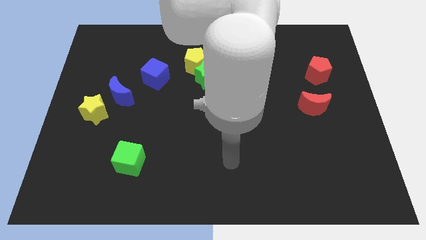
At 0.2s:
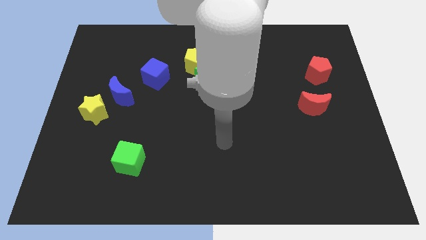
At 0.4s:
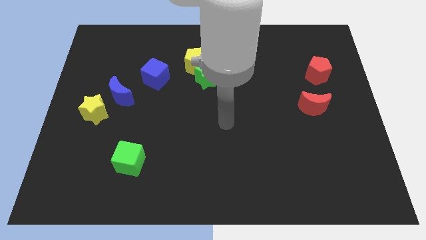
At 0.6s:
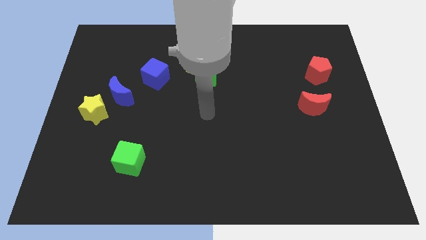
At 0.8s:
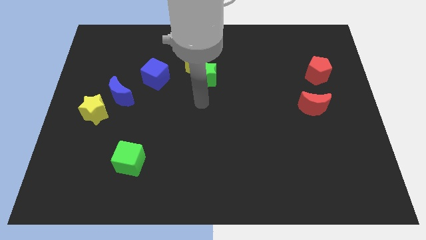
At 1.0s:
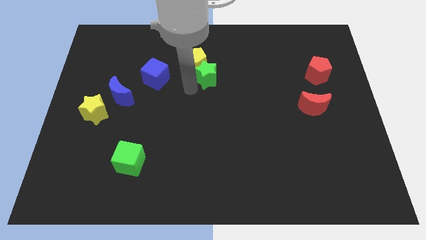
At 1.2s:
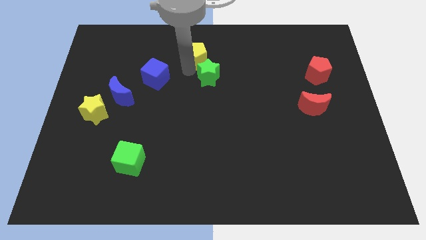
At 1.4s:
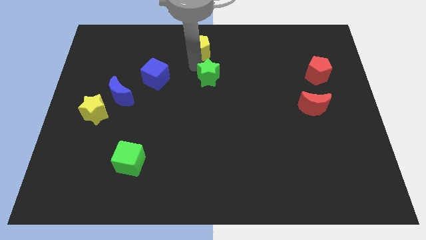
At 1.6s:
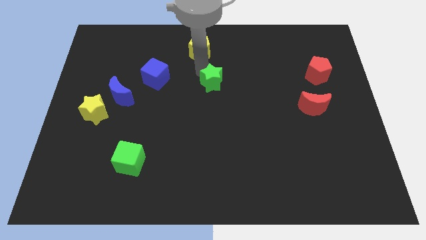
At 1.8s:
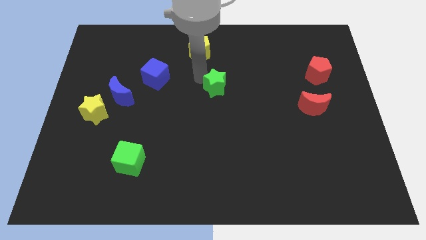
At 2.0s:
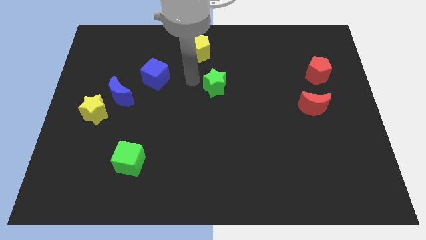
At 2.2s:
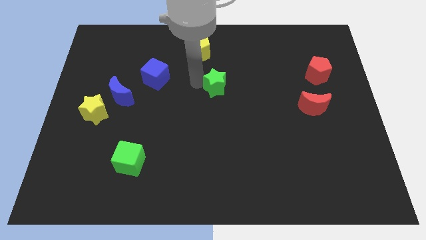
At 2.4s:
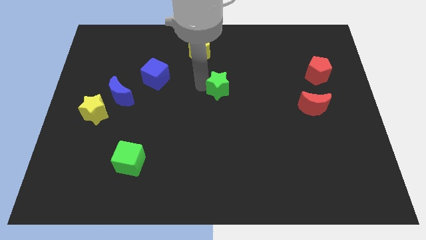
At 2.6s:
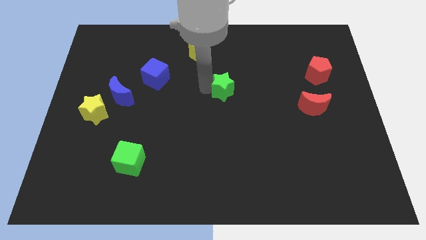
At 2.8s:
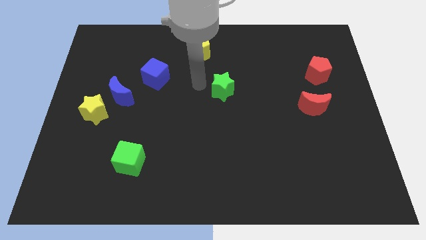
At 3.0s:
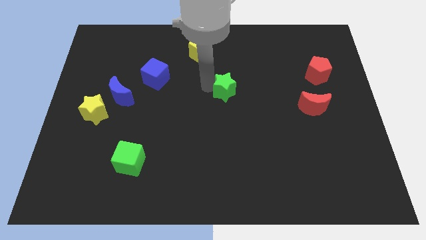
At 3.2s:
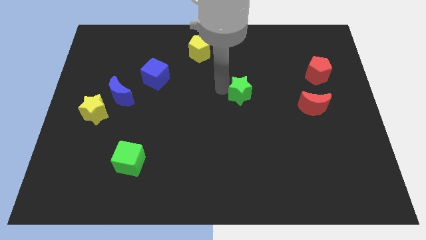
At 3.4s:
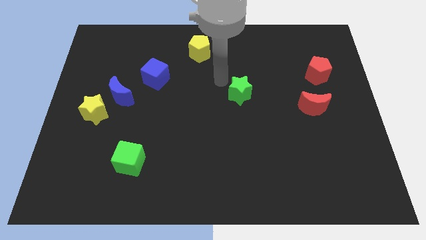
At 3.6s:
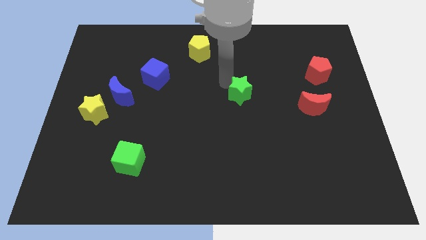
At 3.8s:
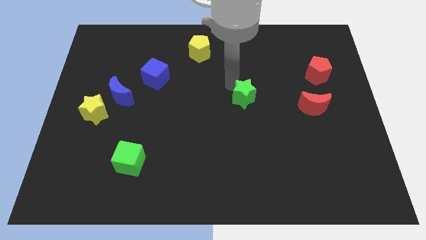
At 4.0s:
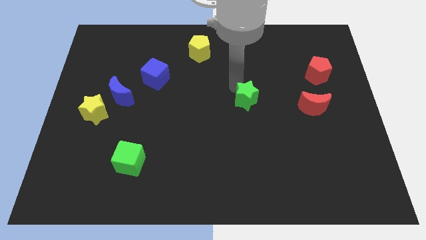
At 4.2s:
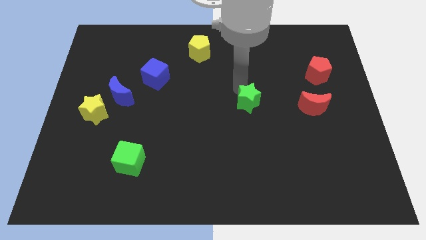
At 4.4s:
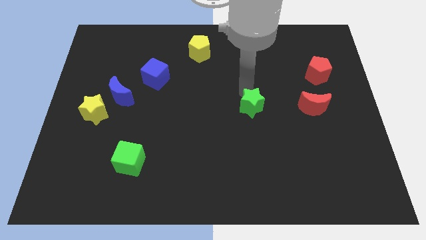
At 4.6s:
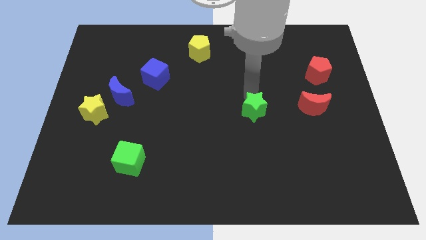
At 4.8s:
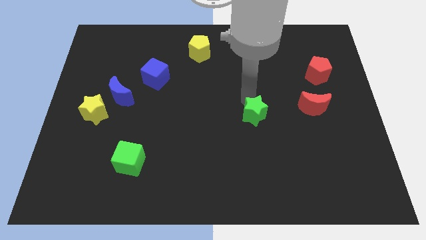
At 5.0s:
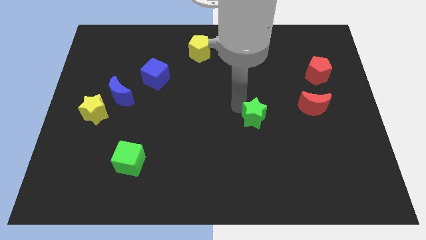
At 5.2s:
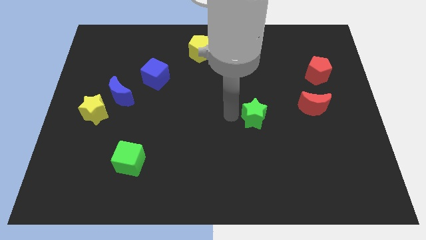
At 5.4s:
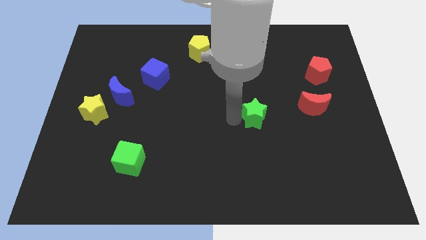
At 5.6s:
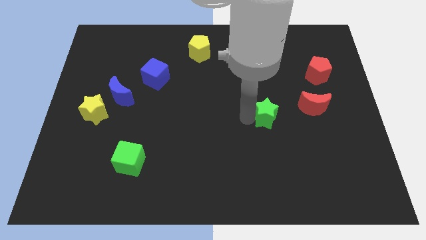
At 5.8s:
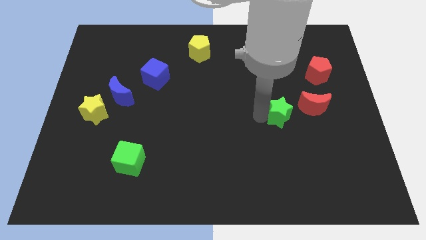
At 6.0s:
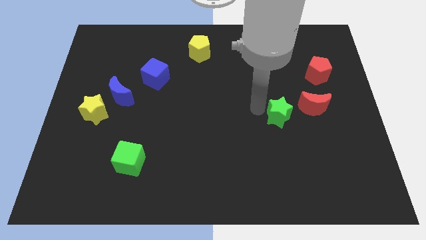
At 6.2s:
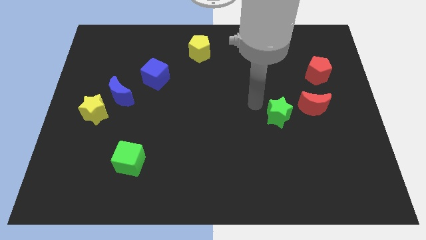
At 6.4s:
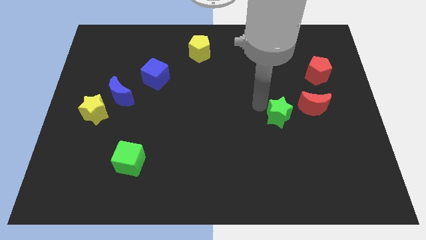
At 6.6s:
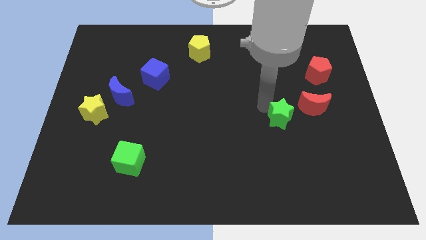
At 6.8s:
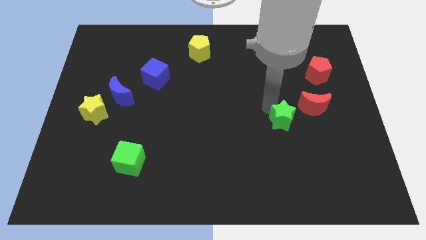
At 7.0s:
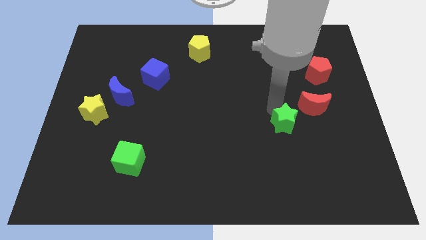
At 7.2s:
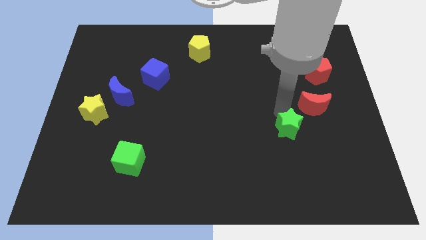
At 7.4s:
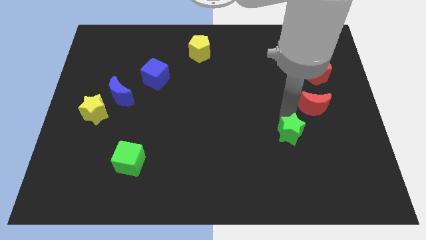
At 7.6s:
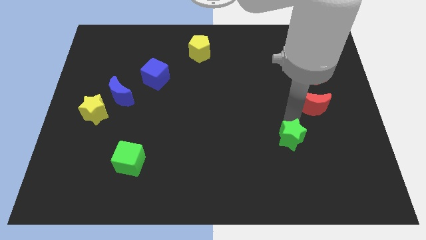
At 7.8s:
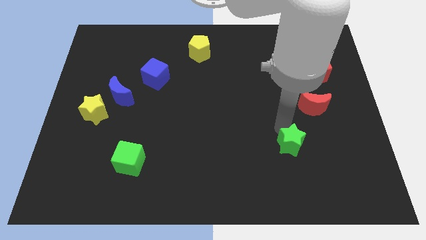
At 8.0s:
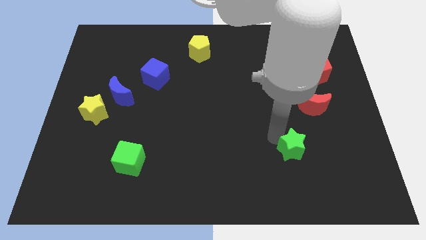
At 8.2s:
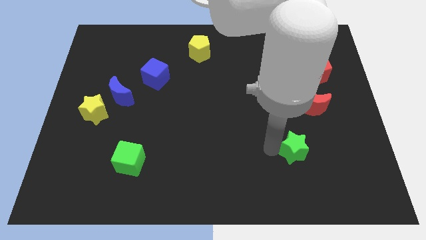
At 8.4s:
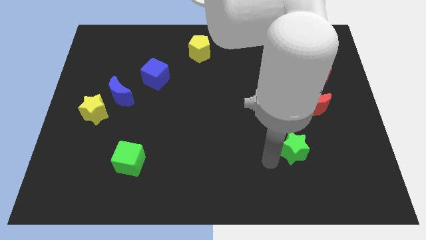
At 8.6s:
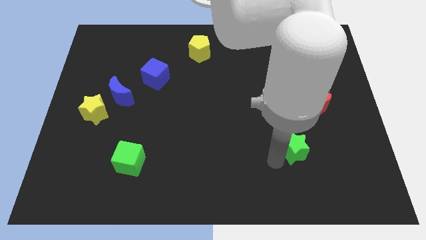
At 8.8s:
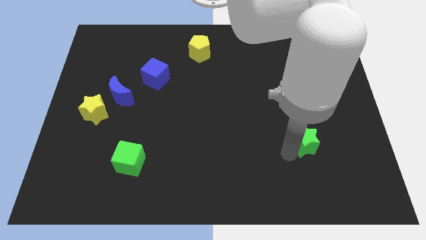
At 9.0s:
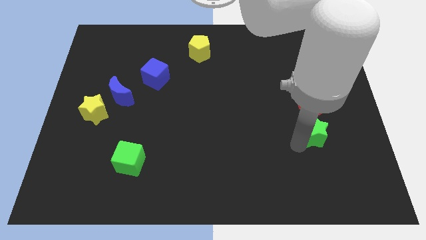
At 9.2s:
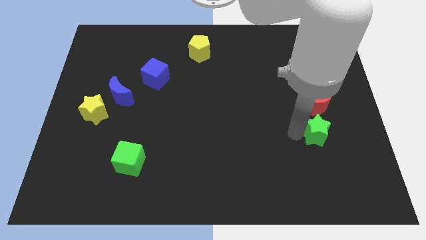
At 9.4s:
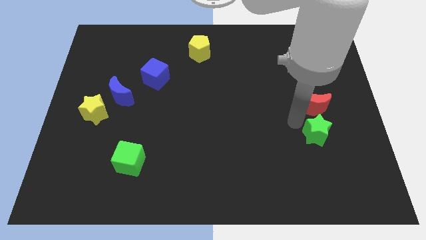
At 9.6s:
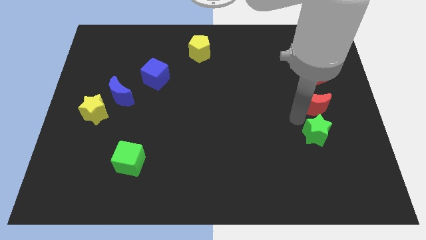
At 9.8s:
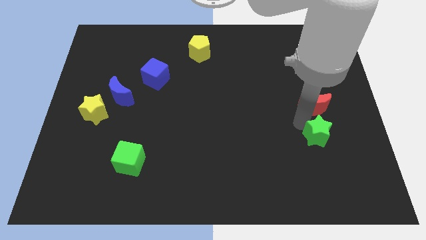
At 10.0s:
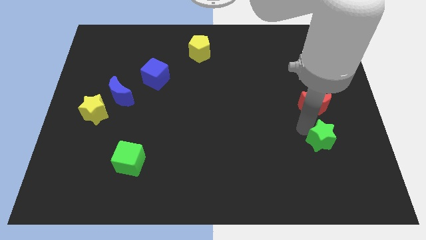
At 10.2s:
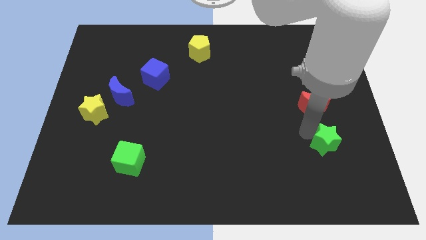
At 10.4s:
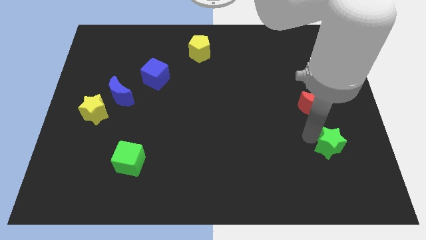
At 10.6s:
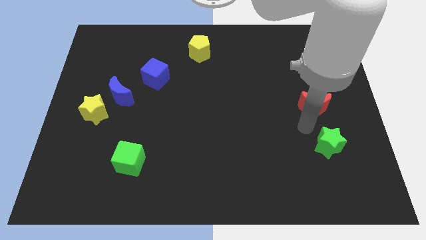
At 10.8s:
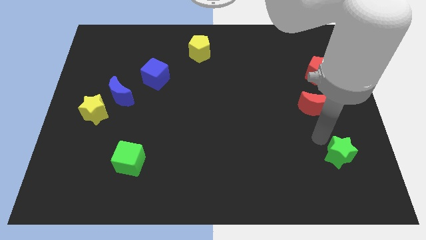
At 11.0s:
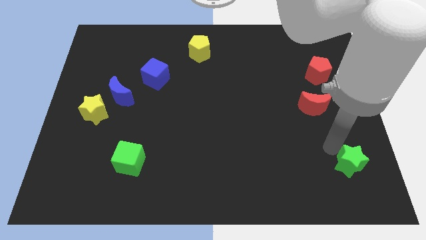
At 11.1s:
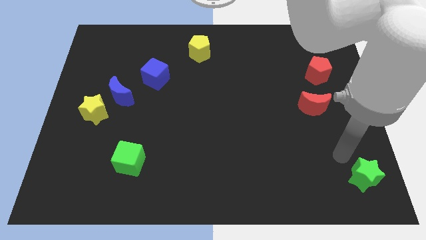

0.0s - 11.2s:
slide the green star to the bottom right

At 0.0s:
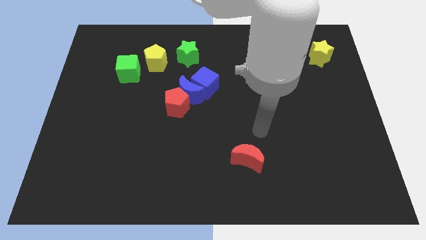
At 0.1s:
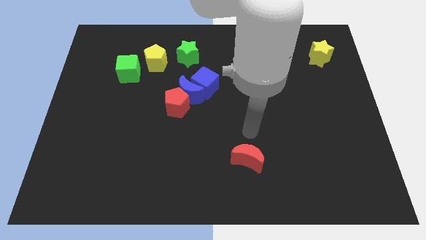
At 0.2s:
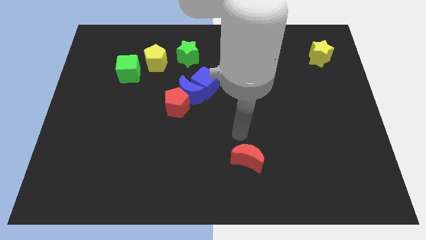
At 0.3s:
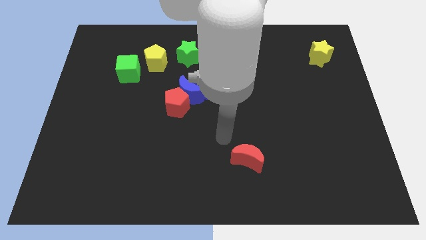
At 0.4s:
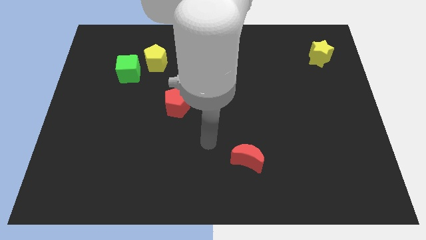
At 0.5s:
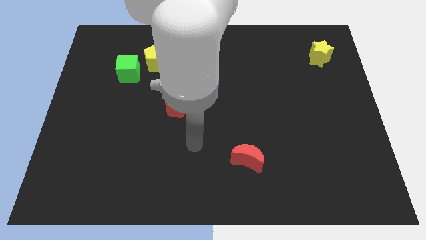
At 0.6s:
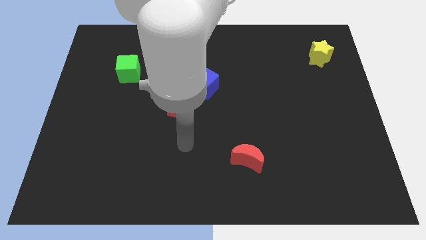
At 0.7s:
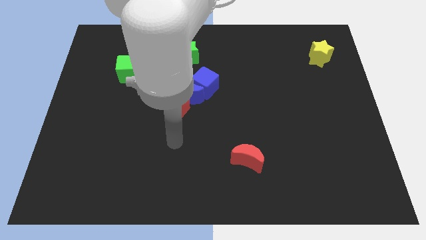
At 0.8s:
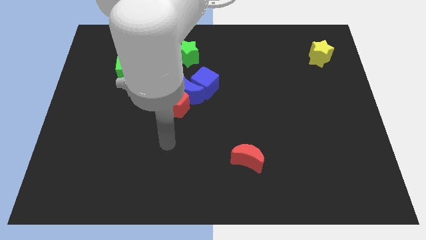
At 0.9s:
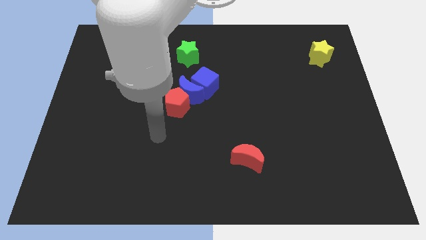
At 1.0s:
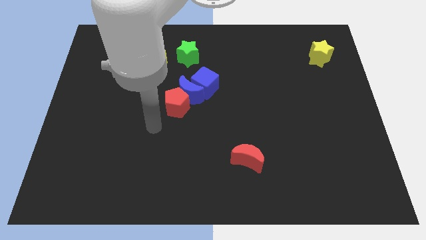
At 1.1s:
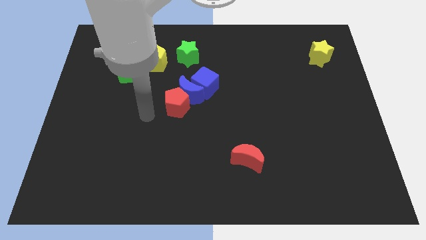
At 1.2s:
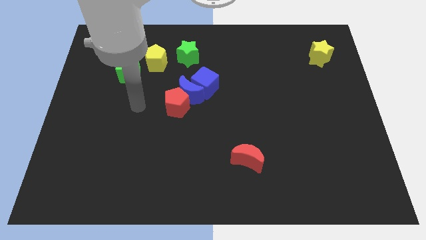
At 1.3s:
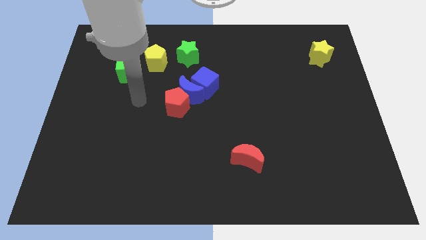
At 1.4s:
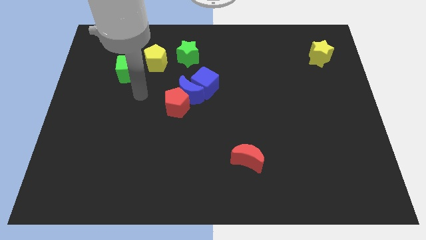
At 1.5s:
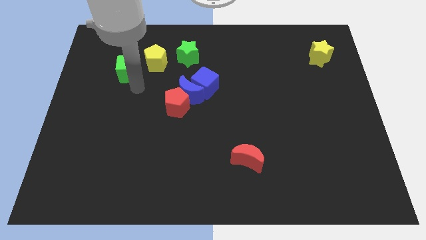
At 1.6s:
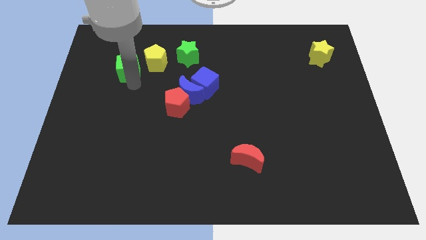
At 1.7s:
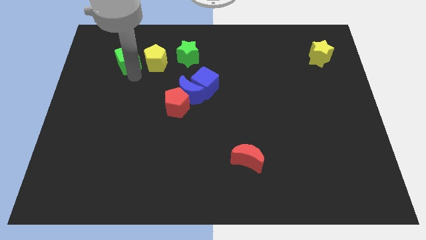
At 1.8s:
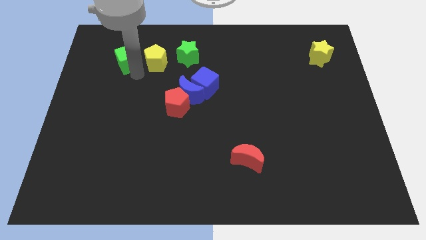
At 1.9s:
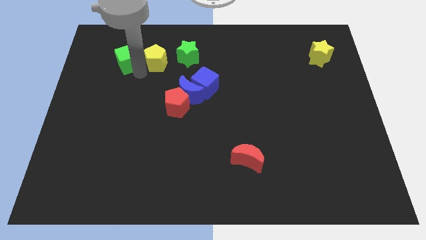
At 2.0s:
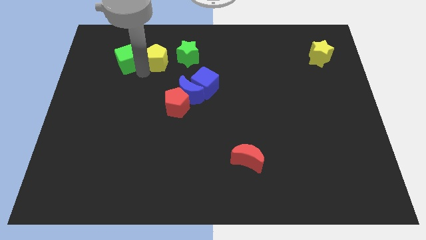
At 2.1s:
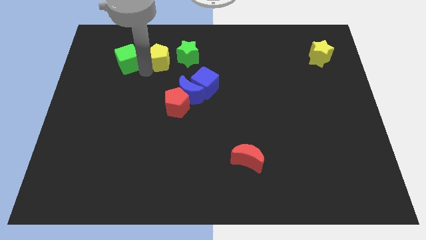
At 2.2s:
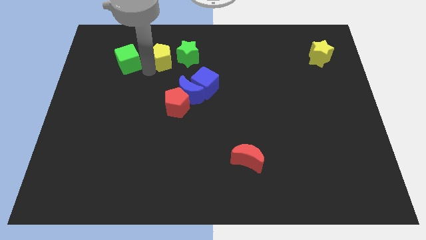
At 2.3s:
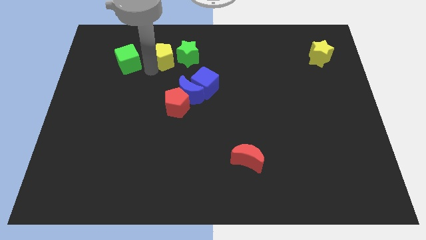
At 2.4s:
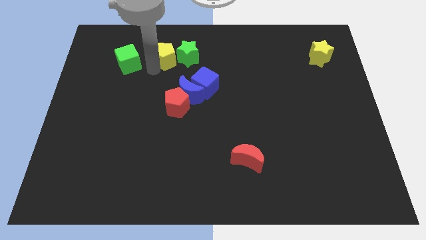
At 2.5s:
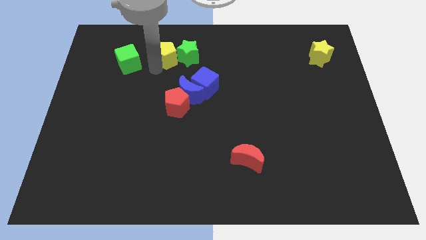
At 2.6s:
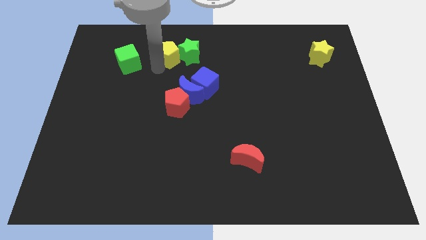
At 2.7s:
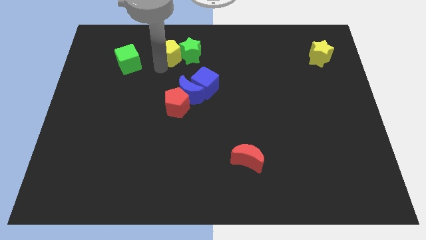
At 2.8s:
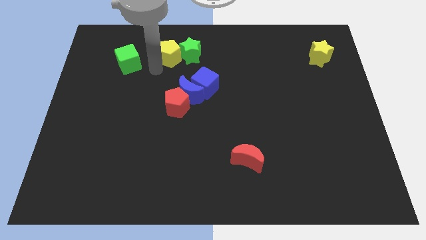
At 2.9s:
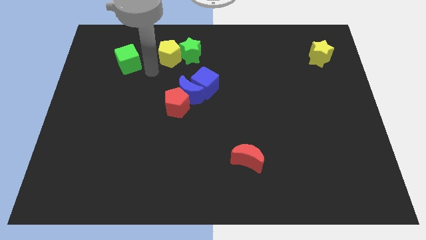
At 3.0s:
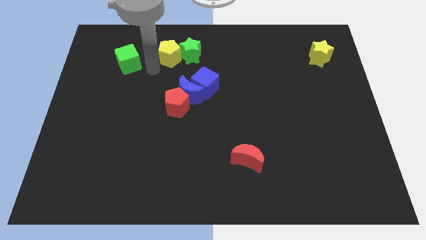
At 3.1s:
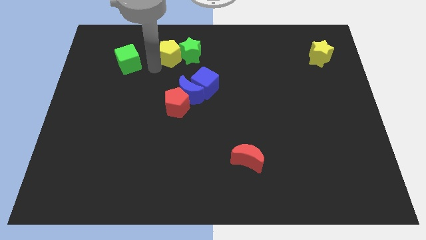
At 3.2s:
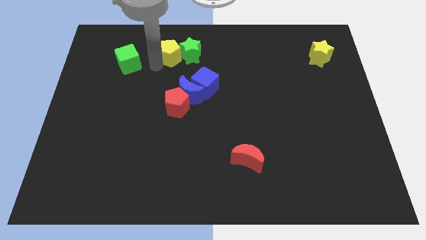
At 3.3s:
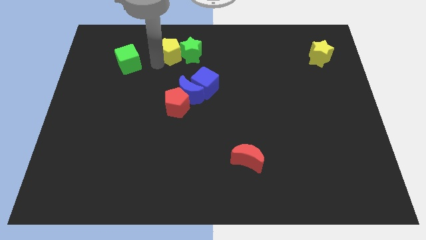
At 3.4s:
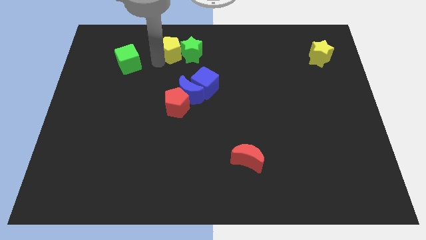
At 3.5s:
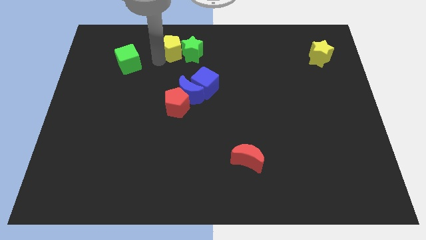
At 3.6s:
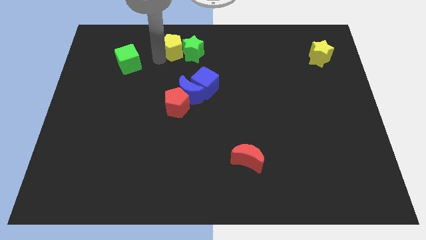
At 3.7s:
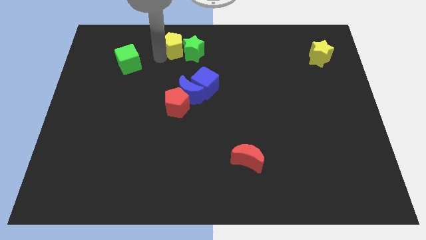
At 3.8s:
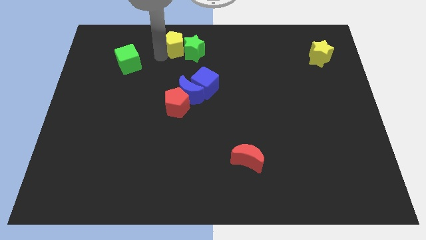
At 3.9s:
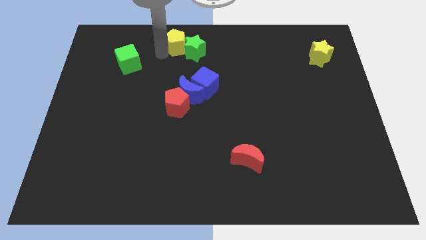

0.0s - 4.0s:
push the yellow pentagon to the top
